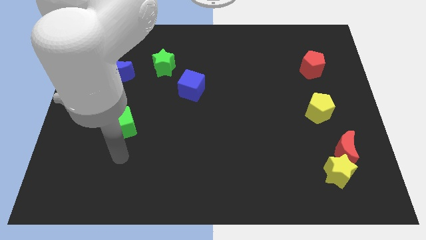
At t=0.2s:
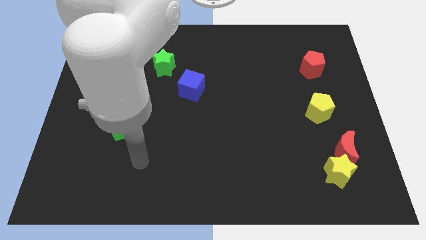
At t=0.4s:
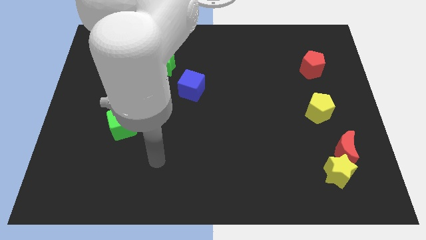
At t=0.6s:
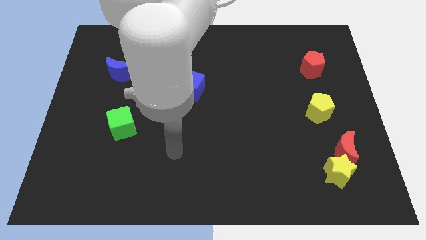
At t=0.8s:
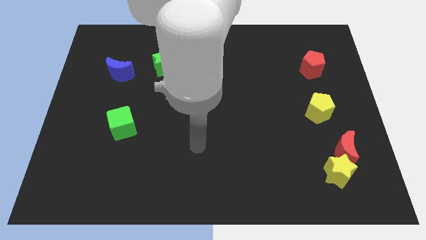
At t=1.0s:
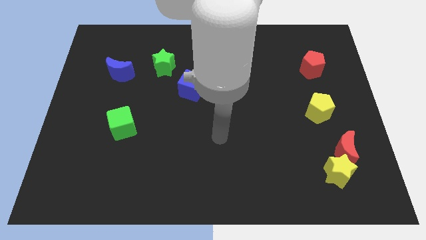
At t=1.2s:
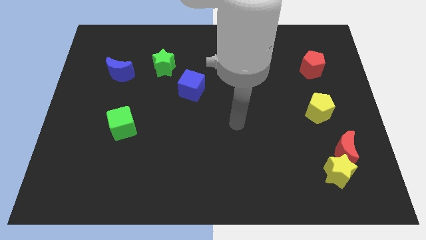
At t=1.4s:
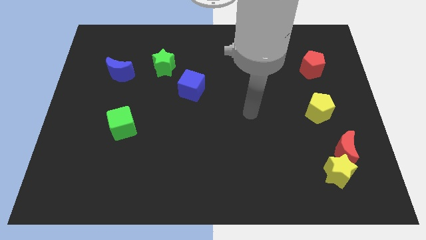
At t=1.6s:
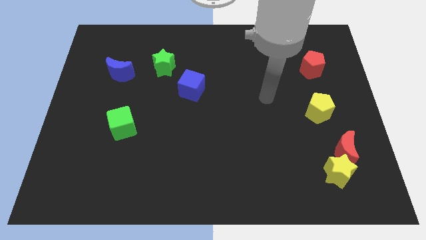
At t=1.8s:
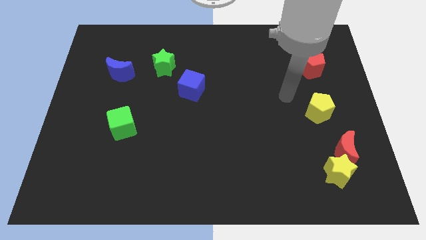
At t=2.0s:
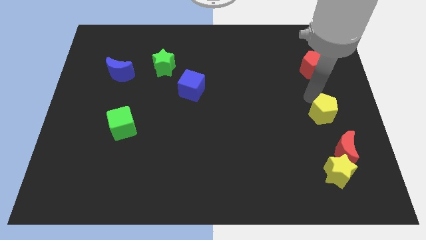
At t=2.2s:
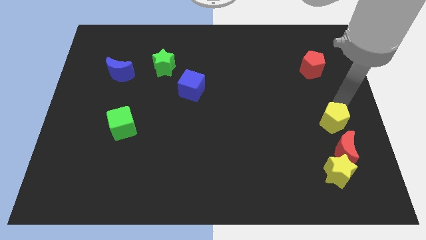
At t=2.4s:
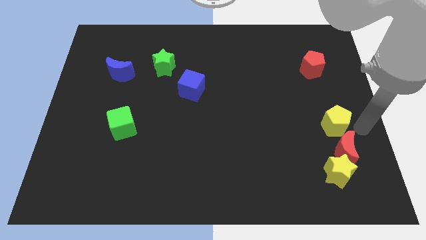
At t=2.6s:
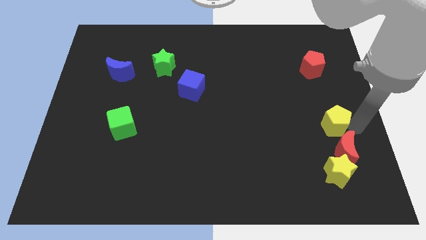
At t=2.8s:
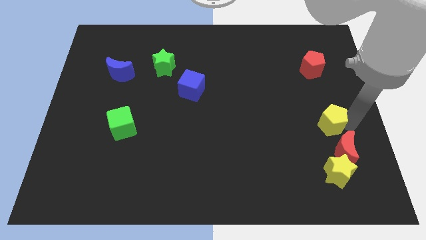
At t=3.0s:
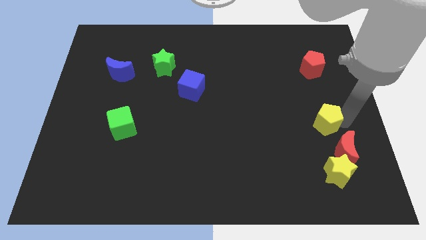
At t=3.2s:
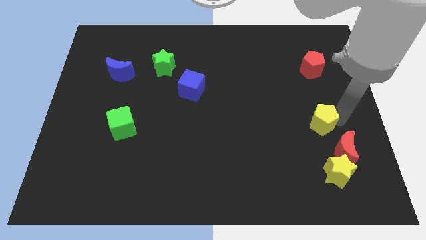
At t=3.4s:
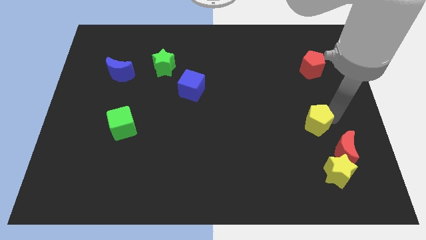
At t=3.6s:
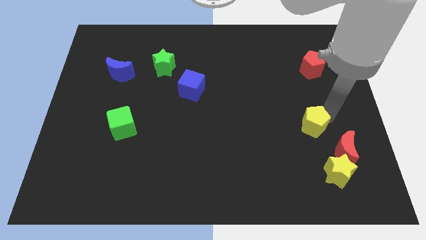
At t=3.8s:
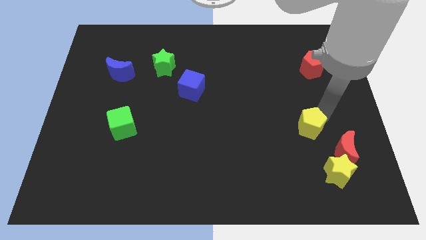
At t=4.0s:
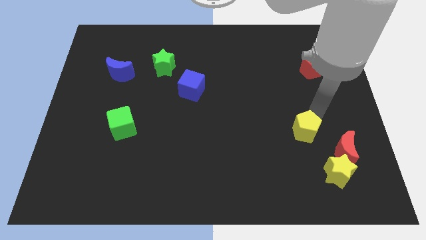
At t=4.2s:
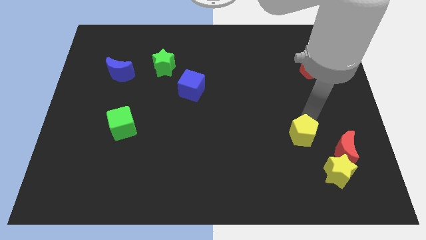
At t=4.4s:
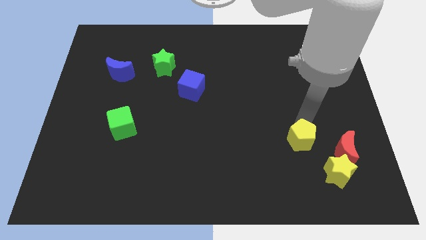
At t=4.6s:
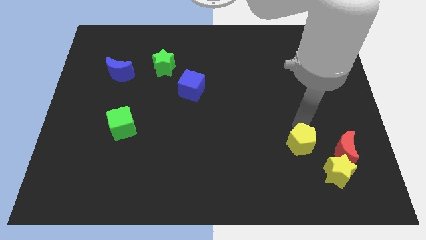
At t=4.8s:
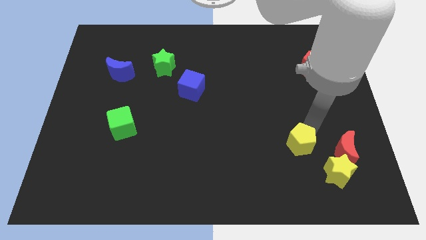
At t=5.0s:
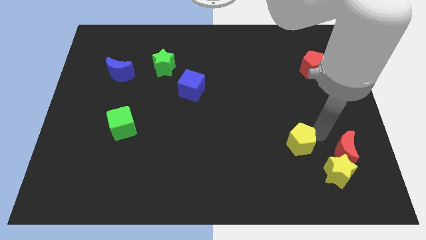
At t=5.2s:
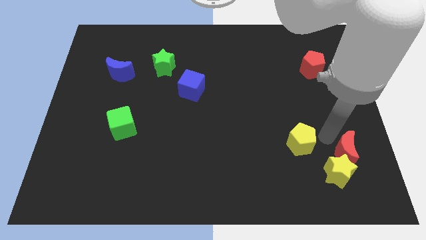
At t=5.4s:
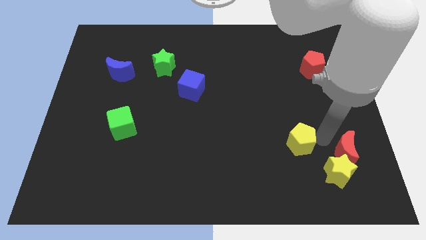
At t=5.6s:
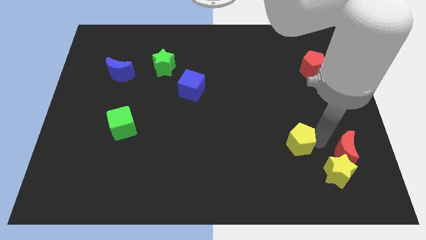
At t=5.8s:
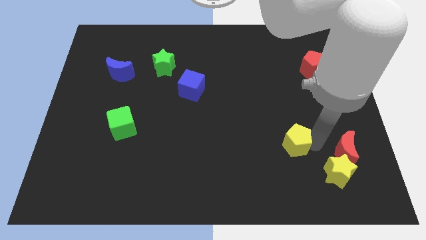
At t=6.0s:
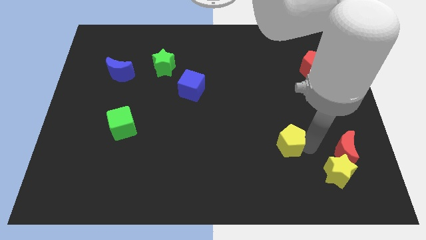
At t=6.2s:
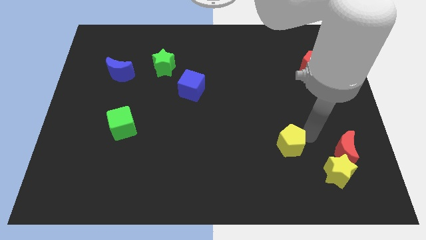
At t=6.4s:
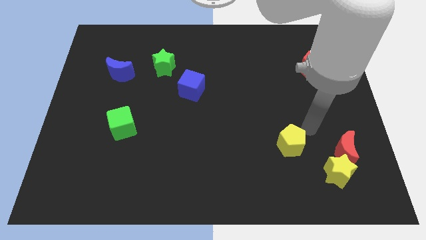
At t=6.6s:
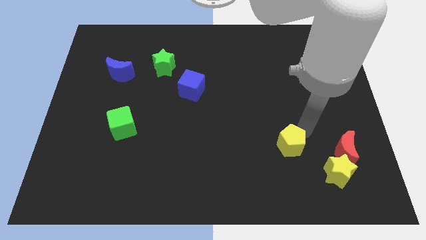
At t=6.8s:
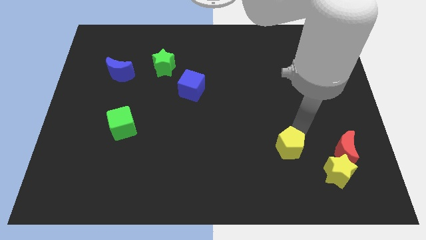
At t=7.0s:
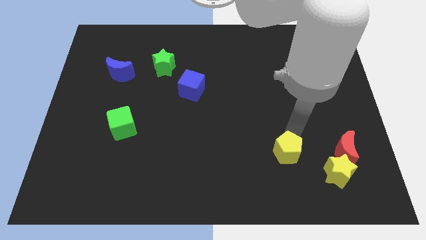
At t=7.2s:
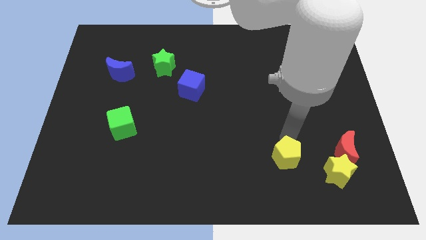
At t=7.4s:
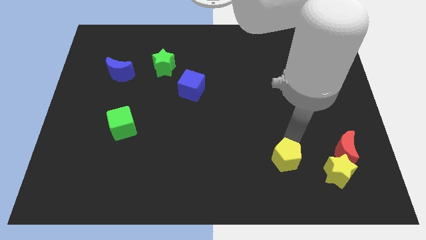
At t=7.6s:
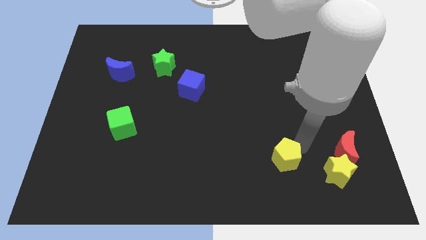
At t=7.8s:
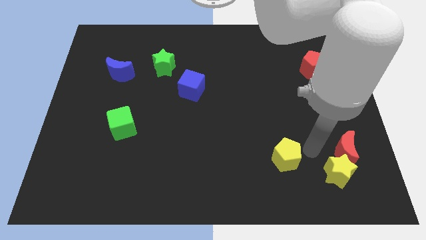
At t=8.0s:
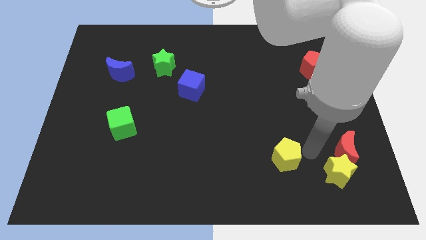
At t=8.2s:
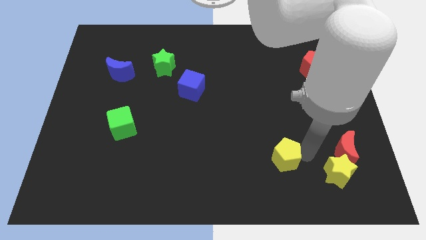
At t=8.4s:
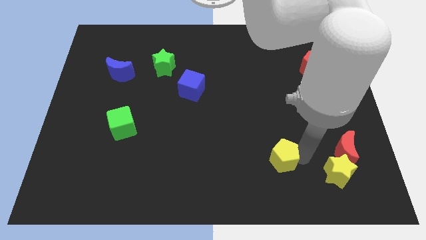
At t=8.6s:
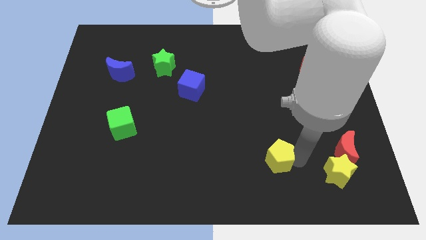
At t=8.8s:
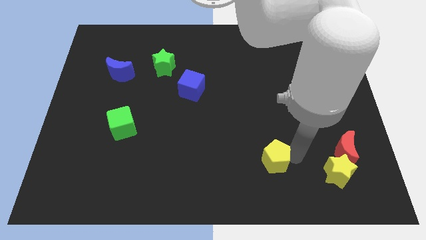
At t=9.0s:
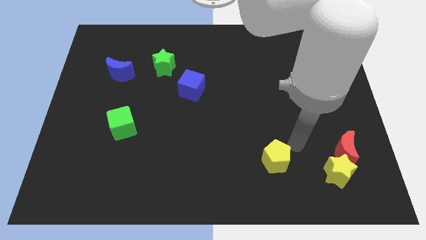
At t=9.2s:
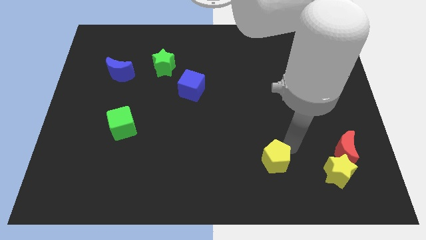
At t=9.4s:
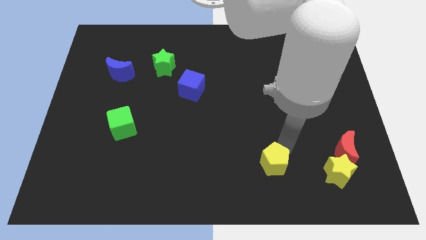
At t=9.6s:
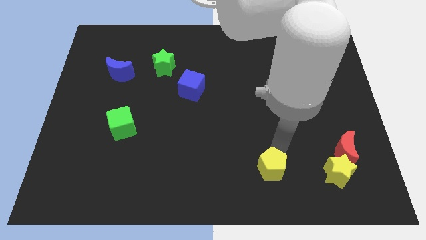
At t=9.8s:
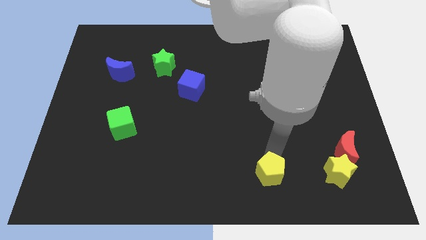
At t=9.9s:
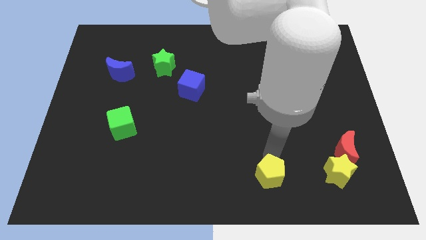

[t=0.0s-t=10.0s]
put the yellow pentagon to the bottom

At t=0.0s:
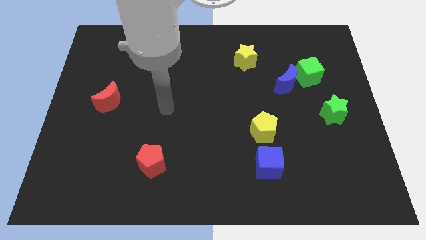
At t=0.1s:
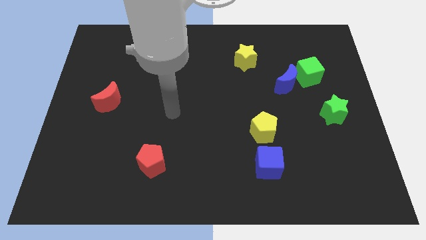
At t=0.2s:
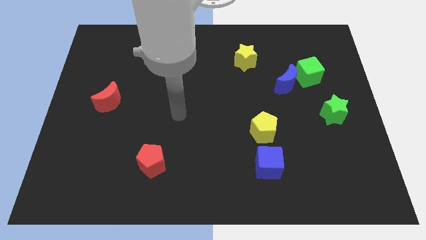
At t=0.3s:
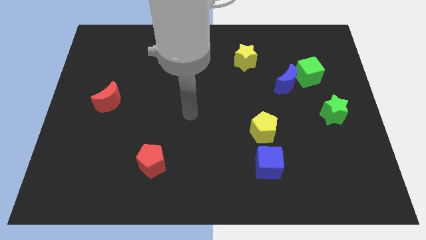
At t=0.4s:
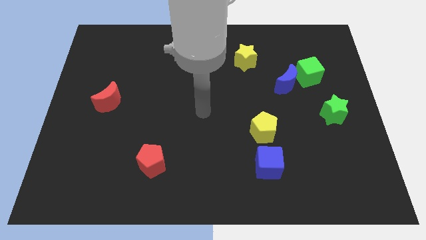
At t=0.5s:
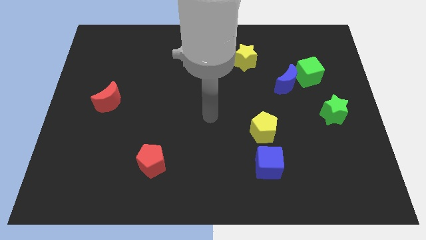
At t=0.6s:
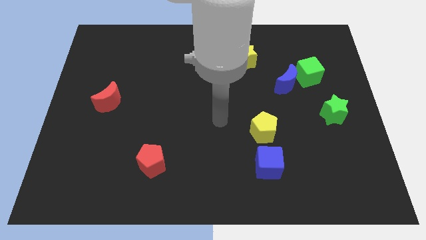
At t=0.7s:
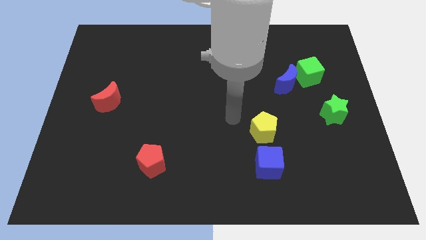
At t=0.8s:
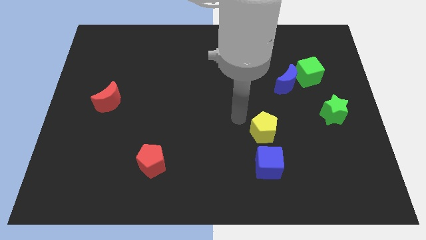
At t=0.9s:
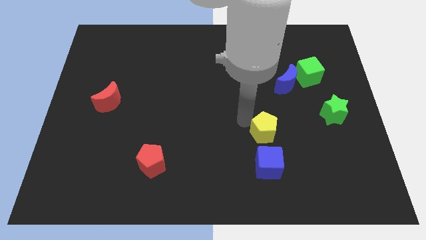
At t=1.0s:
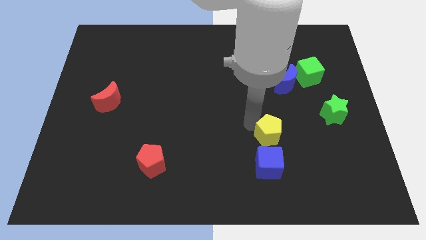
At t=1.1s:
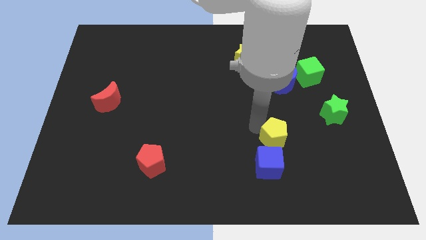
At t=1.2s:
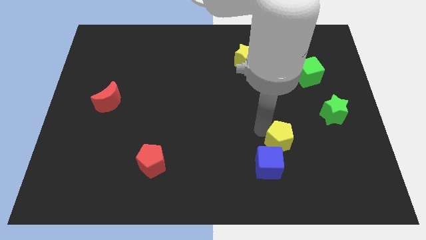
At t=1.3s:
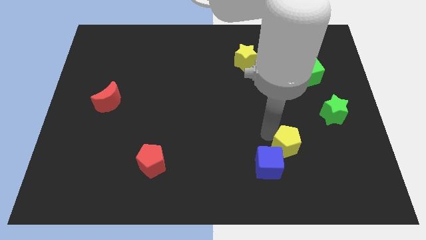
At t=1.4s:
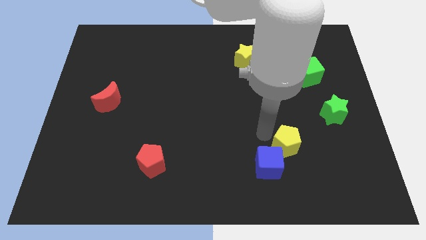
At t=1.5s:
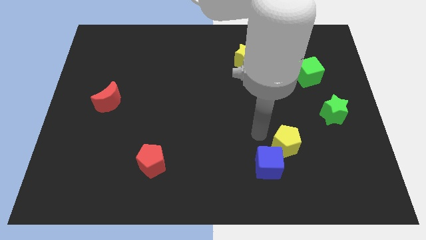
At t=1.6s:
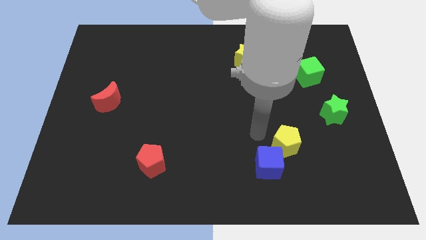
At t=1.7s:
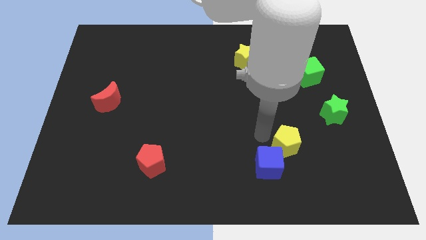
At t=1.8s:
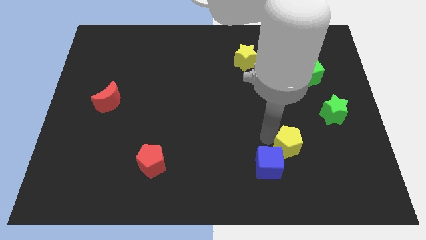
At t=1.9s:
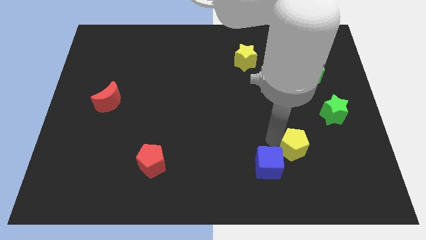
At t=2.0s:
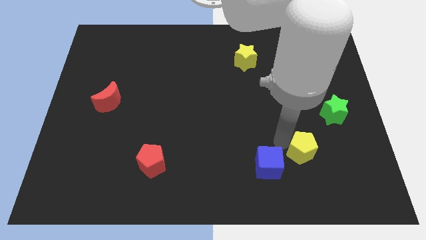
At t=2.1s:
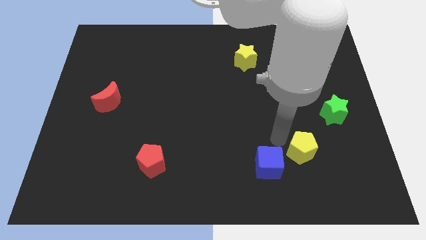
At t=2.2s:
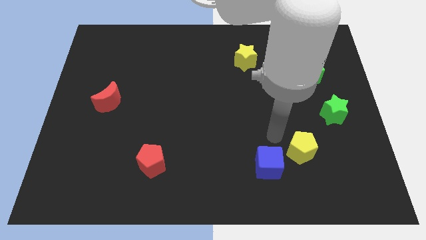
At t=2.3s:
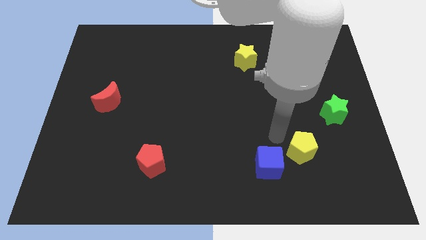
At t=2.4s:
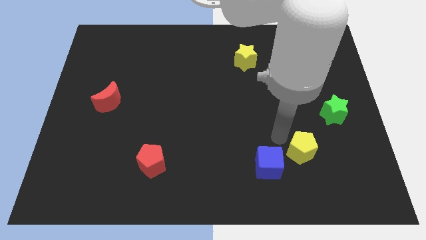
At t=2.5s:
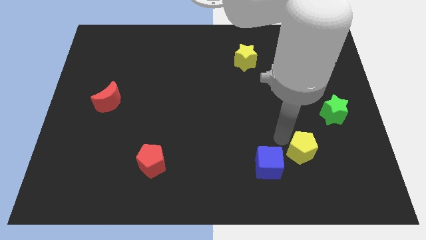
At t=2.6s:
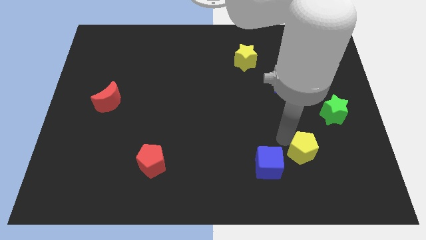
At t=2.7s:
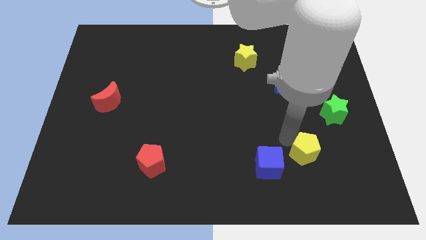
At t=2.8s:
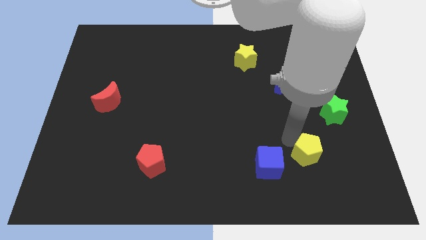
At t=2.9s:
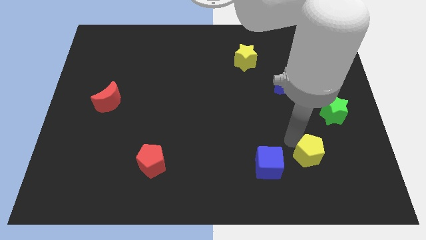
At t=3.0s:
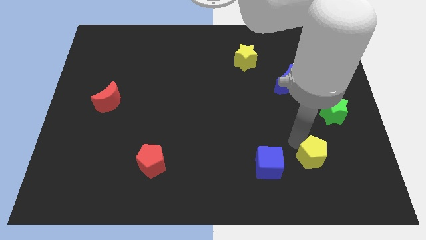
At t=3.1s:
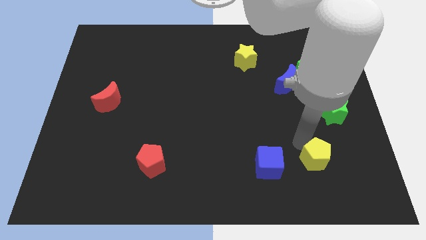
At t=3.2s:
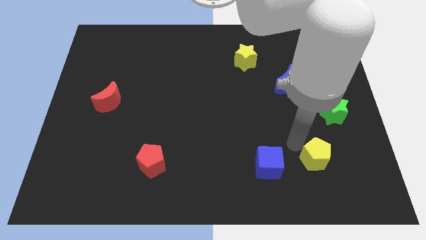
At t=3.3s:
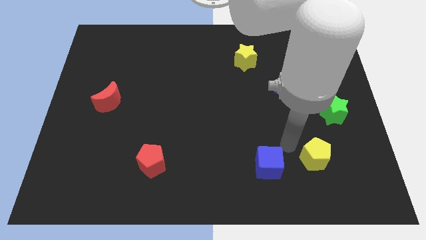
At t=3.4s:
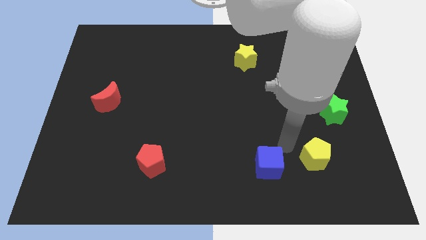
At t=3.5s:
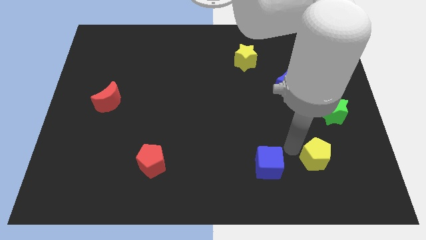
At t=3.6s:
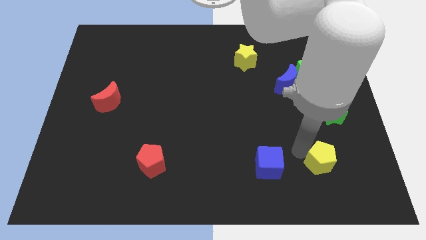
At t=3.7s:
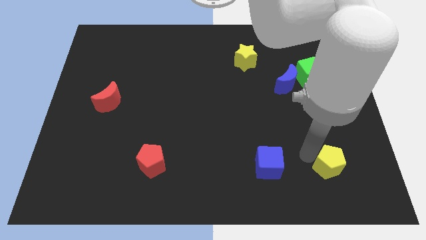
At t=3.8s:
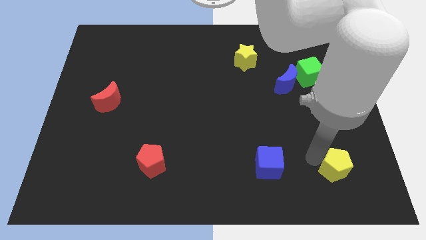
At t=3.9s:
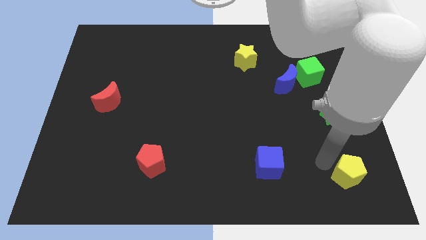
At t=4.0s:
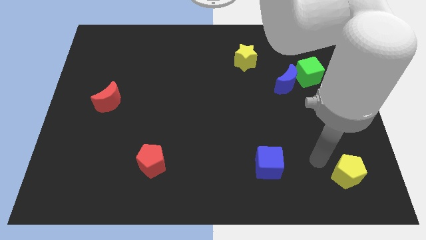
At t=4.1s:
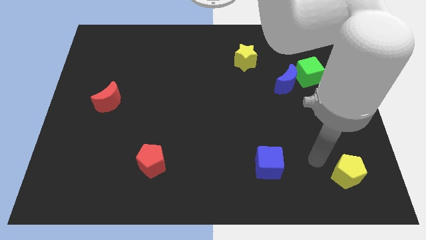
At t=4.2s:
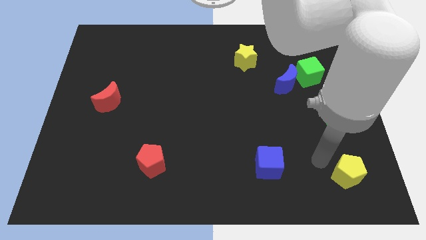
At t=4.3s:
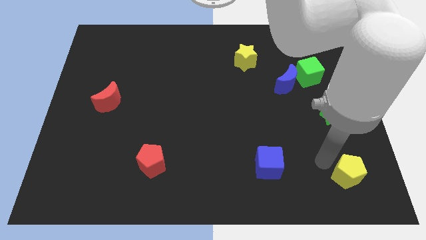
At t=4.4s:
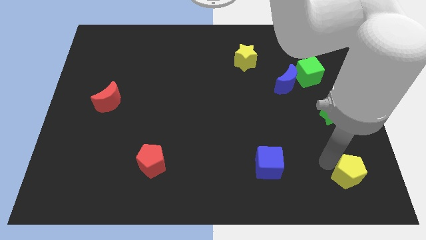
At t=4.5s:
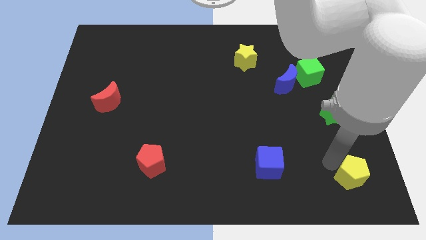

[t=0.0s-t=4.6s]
slide the yellow pentagon to the bottom right of the board
